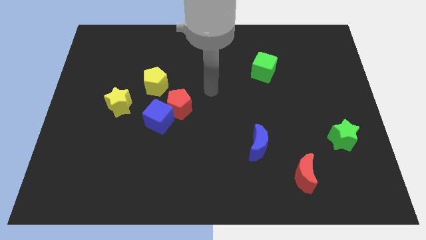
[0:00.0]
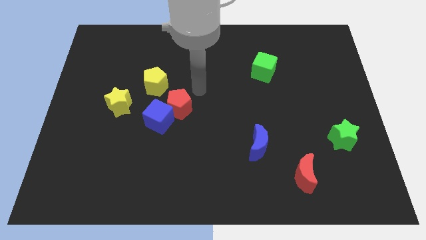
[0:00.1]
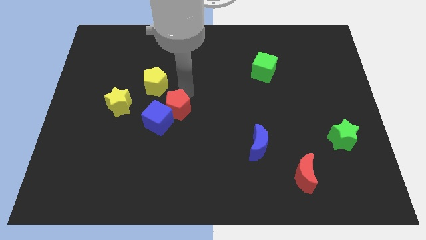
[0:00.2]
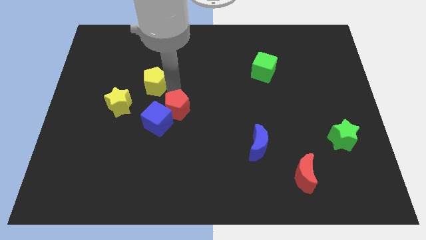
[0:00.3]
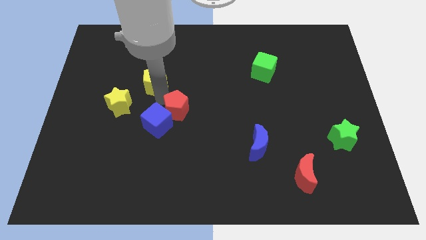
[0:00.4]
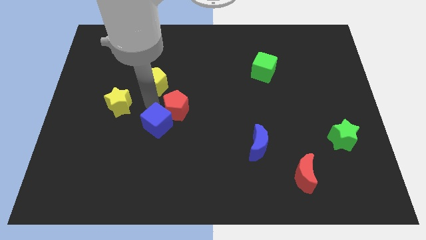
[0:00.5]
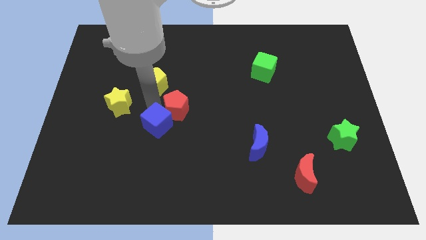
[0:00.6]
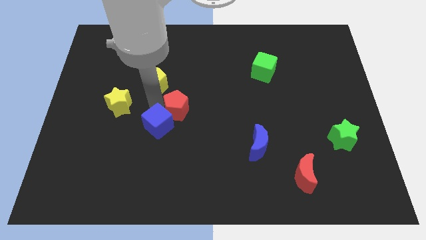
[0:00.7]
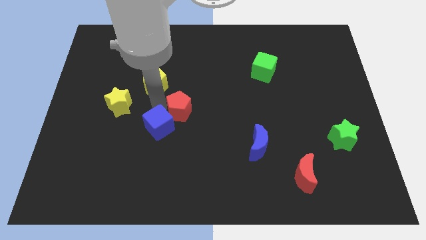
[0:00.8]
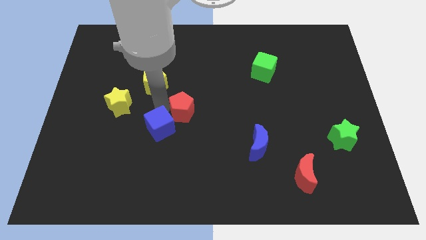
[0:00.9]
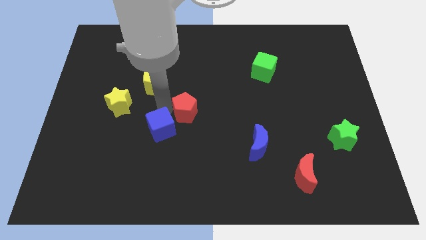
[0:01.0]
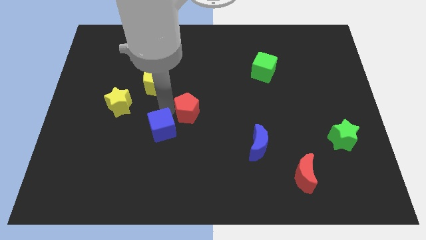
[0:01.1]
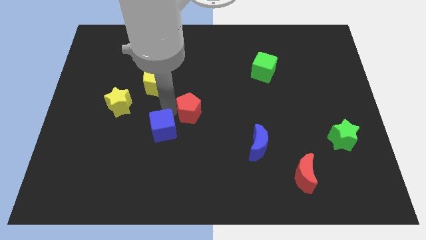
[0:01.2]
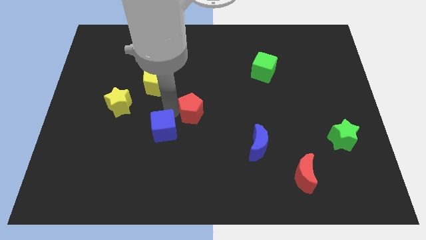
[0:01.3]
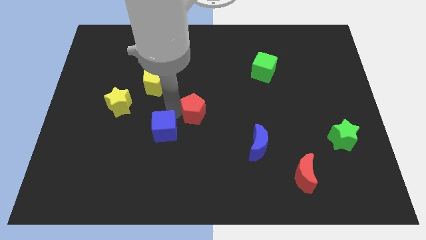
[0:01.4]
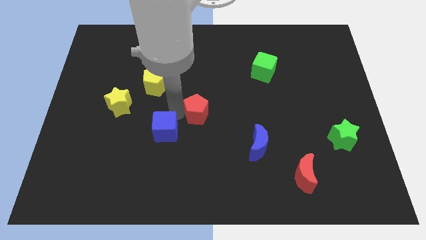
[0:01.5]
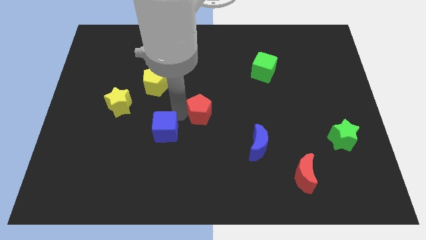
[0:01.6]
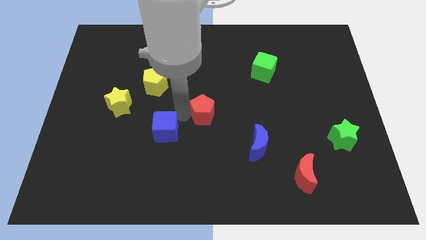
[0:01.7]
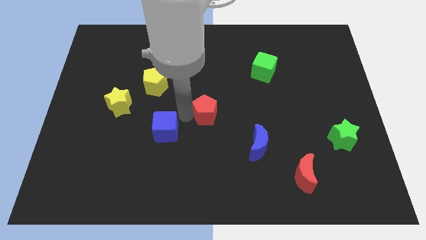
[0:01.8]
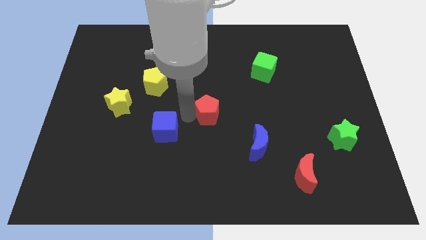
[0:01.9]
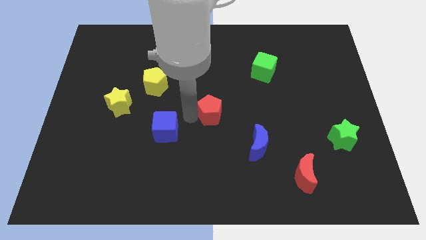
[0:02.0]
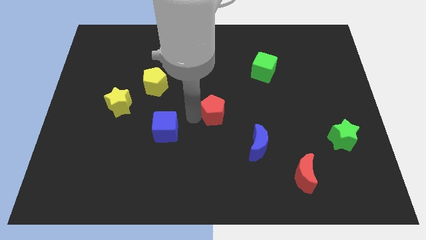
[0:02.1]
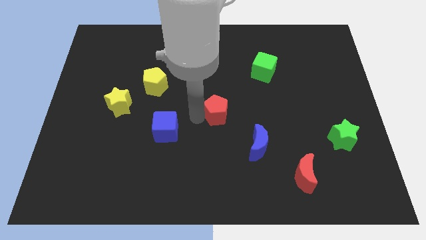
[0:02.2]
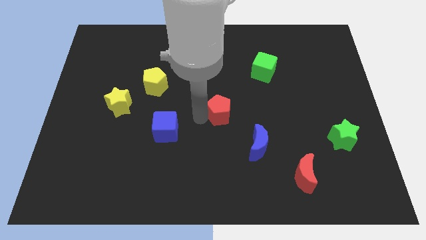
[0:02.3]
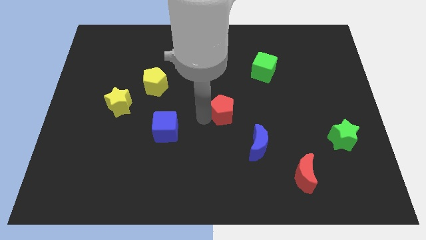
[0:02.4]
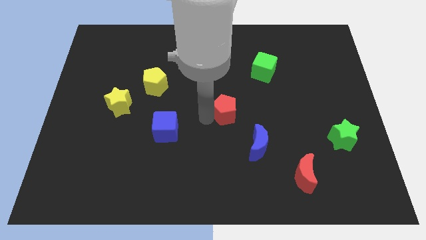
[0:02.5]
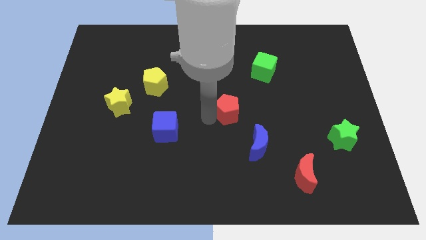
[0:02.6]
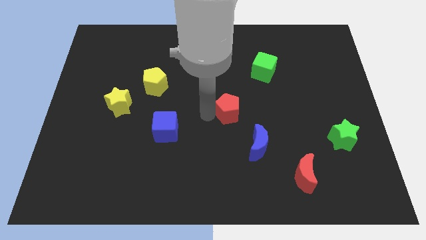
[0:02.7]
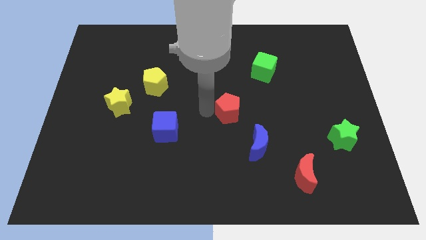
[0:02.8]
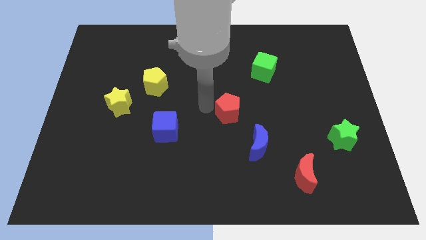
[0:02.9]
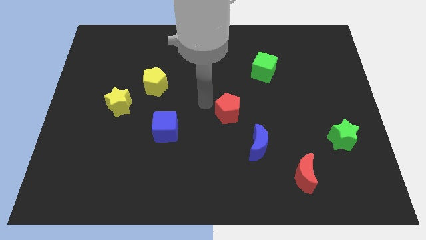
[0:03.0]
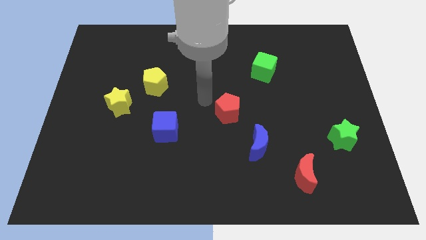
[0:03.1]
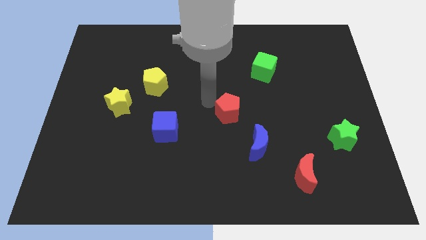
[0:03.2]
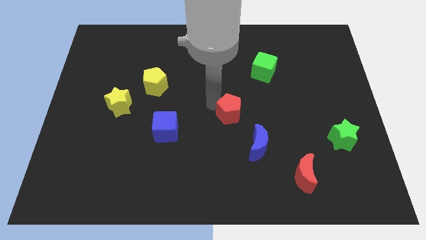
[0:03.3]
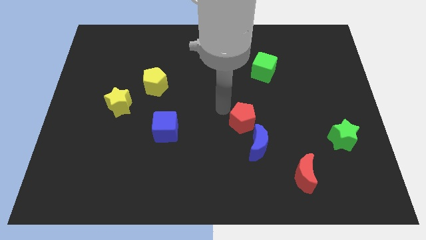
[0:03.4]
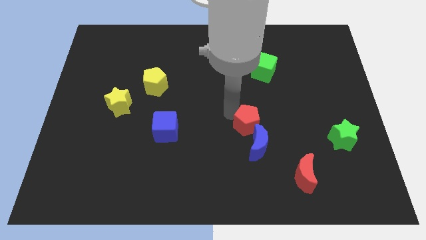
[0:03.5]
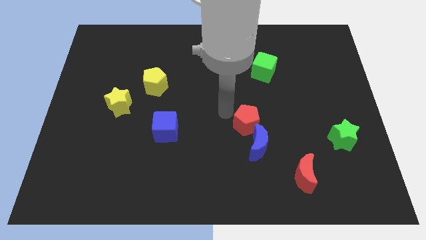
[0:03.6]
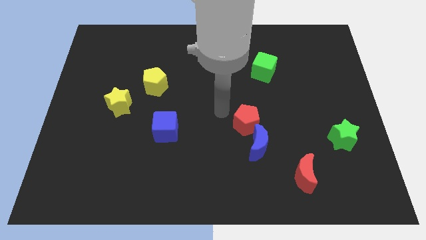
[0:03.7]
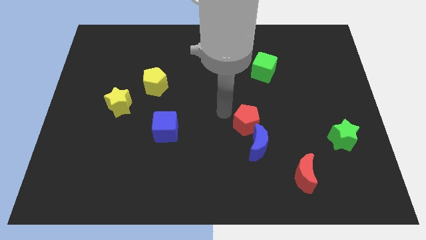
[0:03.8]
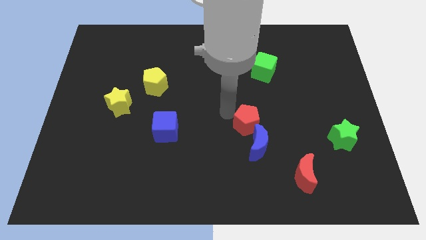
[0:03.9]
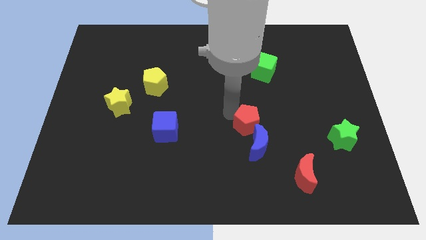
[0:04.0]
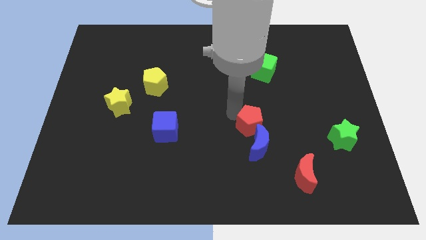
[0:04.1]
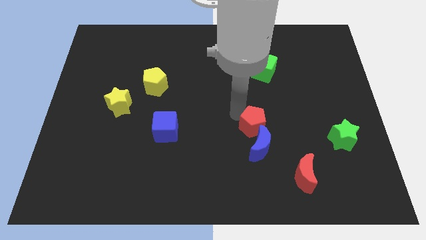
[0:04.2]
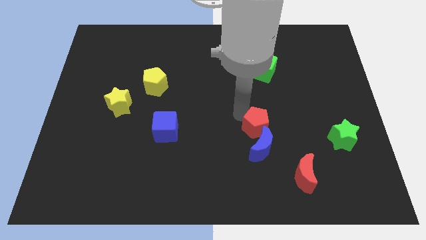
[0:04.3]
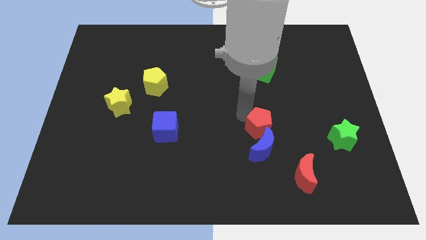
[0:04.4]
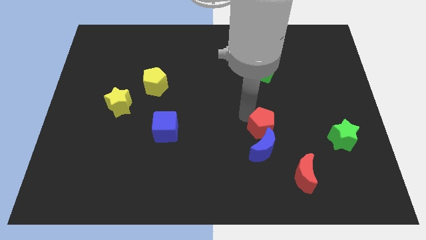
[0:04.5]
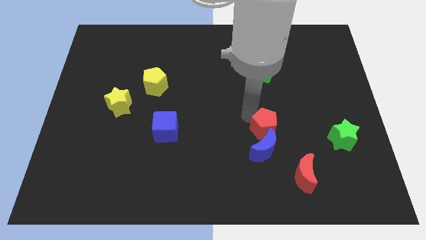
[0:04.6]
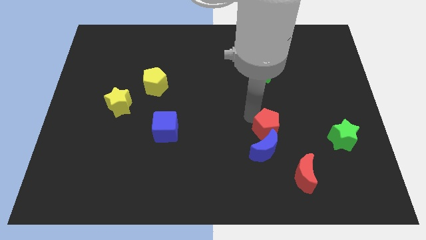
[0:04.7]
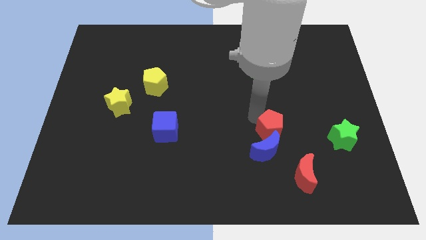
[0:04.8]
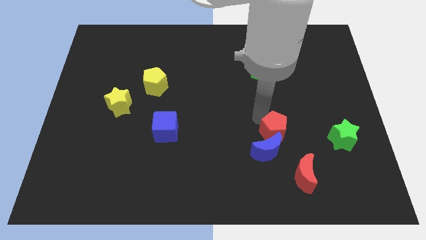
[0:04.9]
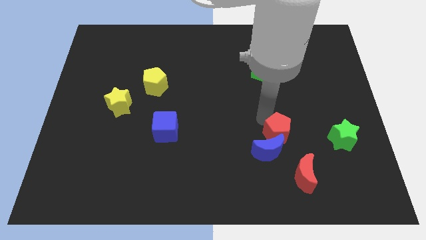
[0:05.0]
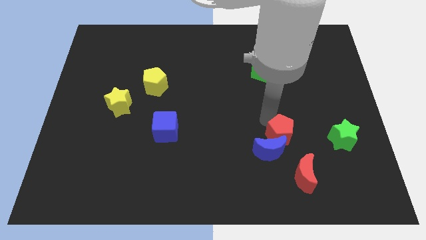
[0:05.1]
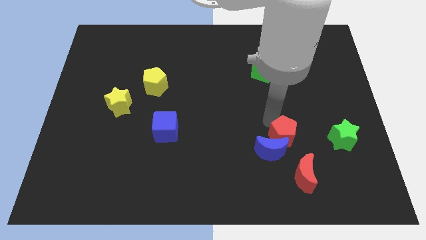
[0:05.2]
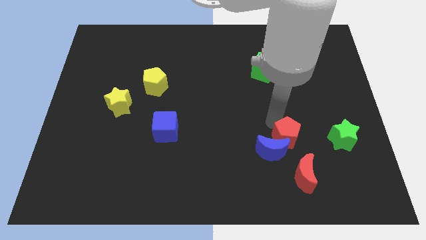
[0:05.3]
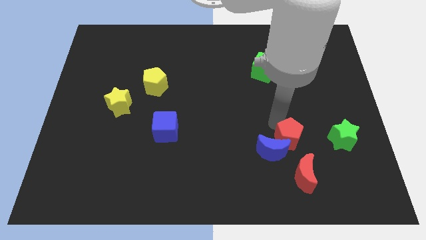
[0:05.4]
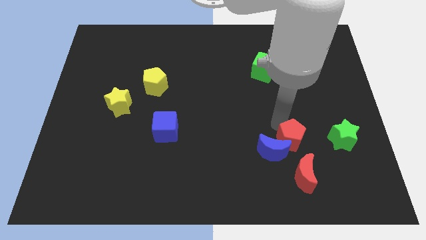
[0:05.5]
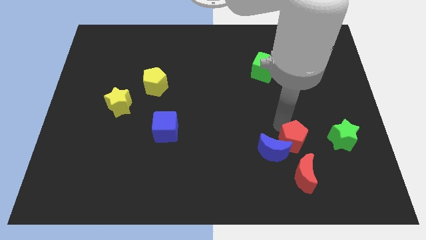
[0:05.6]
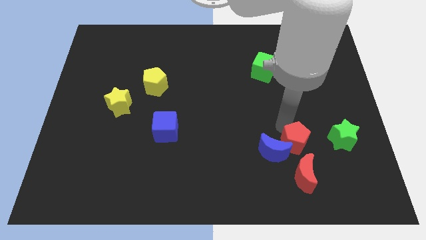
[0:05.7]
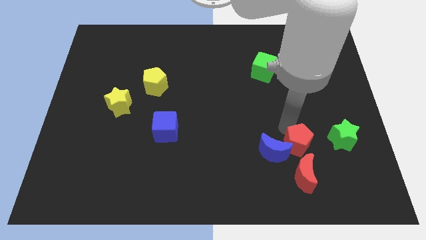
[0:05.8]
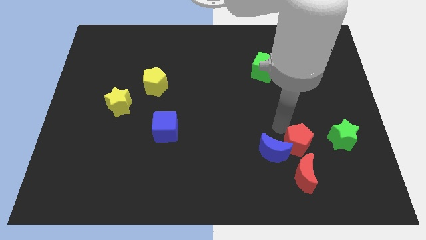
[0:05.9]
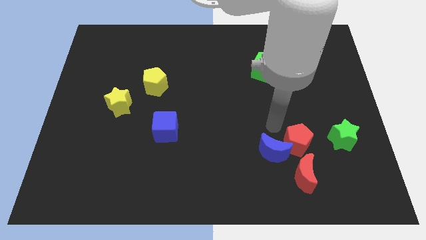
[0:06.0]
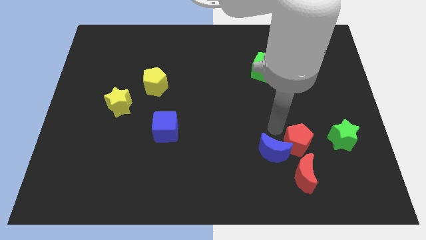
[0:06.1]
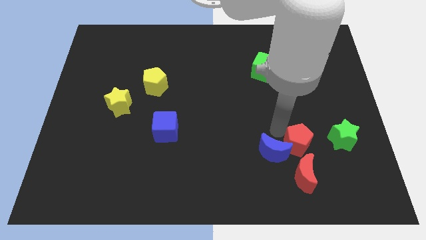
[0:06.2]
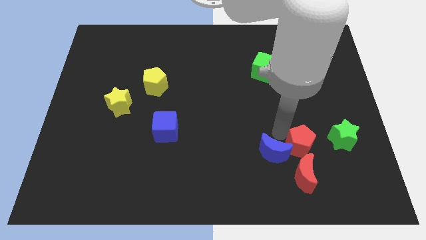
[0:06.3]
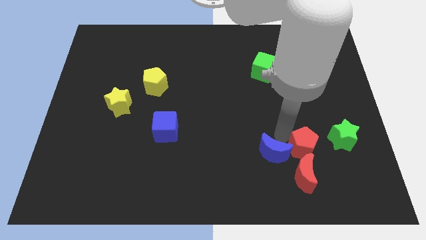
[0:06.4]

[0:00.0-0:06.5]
move the red pentagon to the bottom left of the green star
